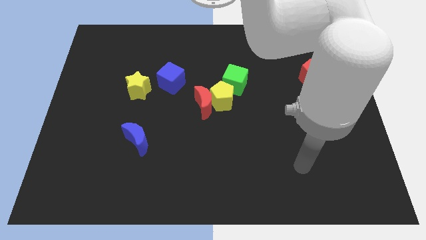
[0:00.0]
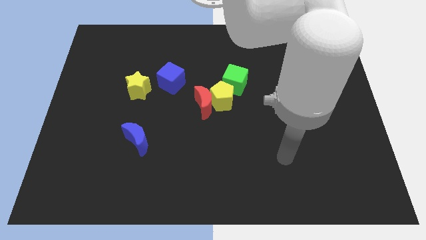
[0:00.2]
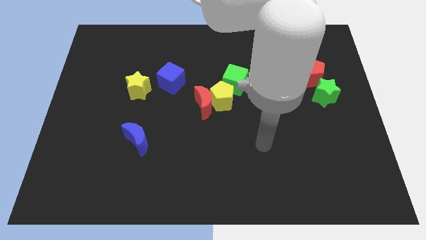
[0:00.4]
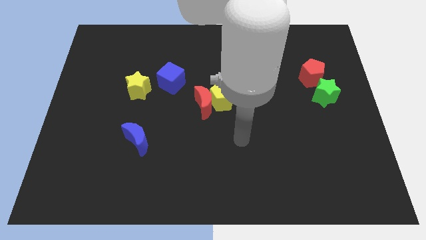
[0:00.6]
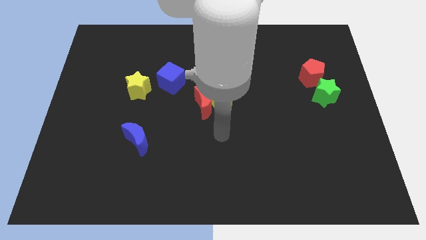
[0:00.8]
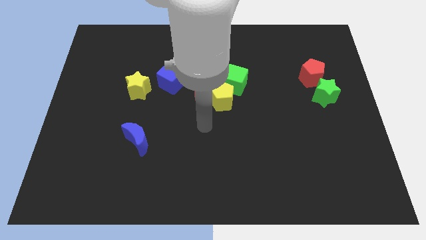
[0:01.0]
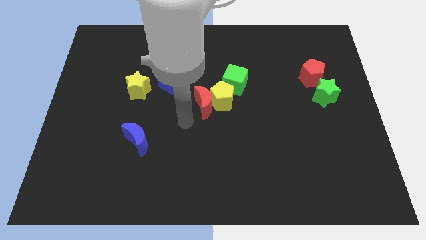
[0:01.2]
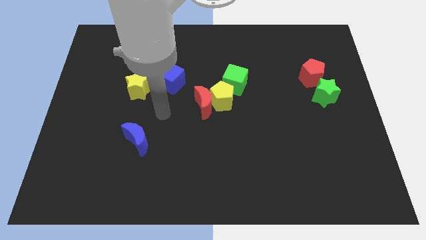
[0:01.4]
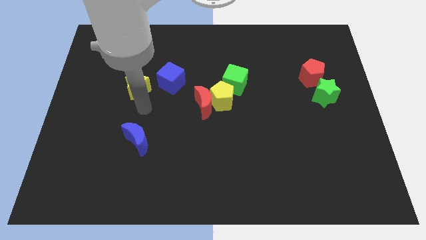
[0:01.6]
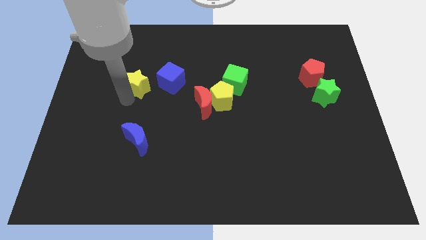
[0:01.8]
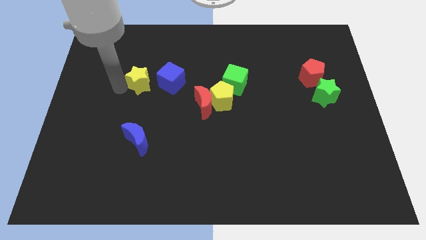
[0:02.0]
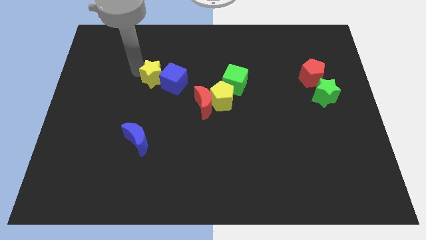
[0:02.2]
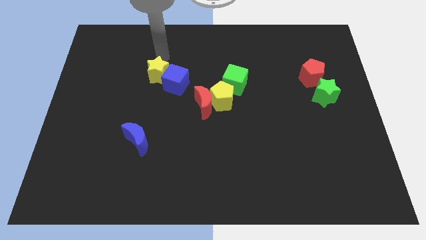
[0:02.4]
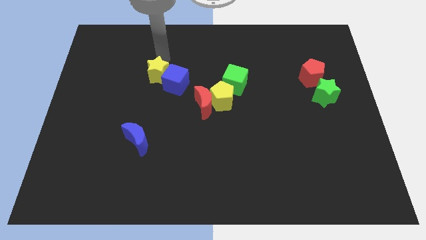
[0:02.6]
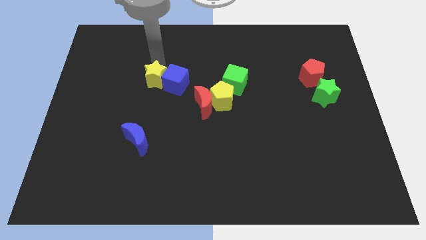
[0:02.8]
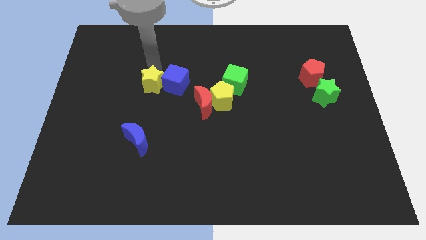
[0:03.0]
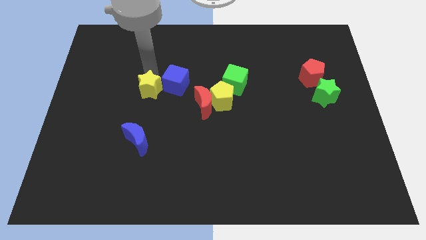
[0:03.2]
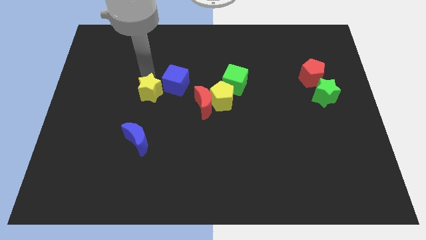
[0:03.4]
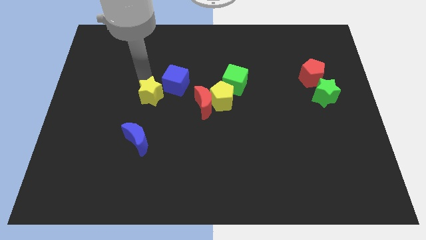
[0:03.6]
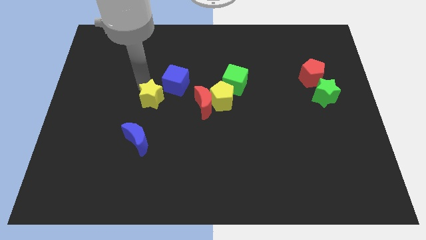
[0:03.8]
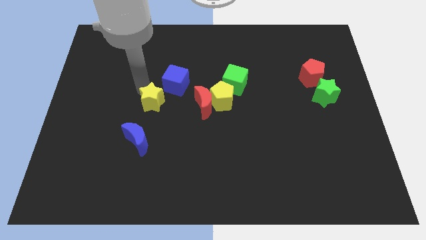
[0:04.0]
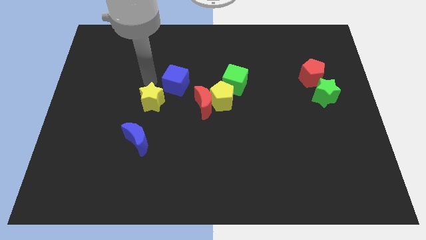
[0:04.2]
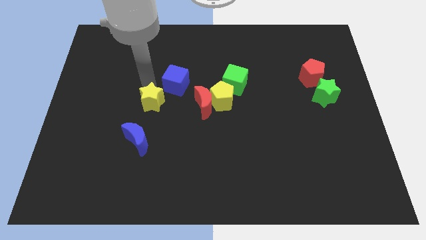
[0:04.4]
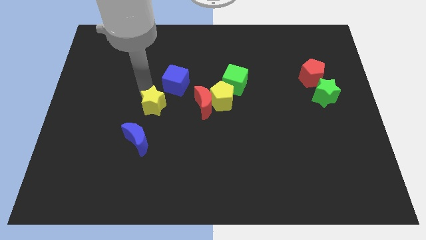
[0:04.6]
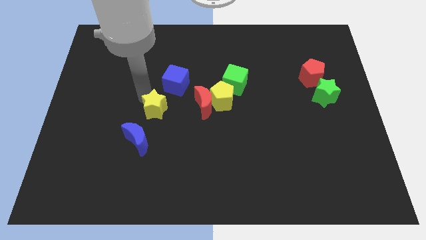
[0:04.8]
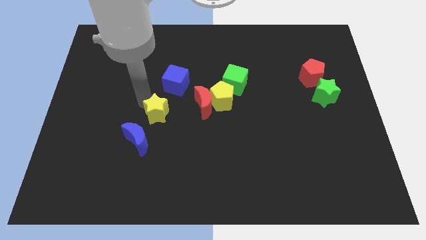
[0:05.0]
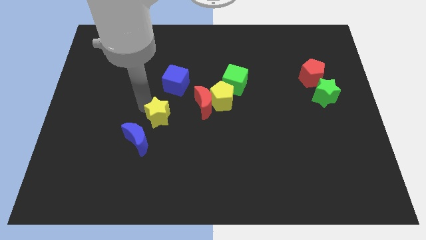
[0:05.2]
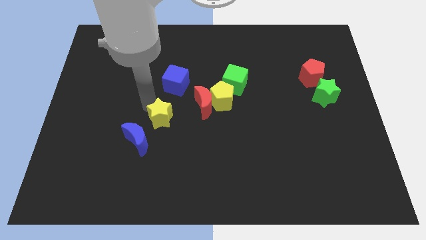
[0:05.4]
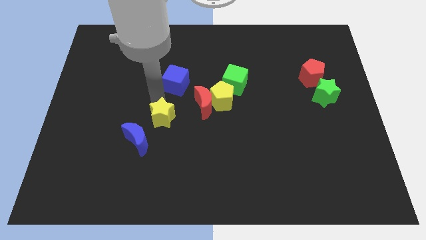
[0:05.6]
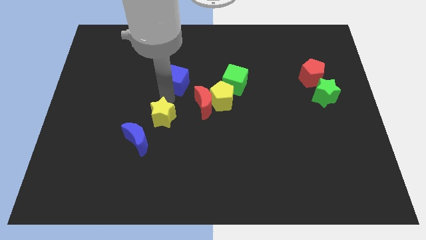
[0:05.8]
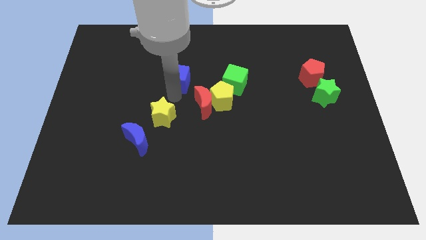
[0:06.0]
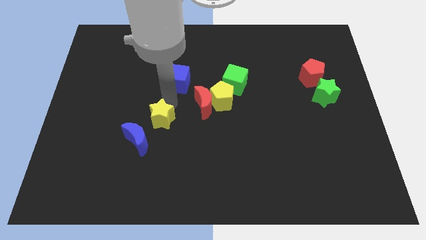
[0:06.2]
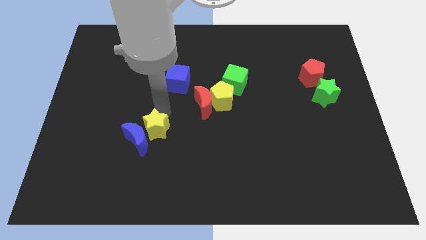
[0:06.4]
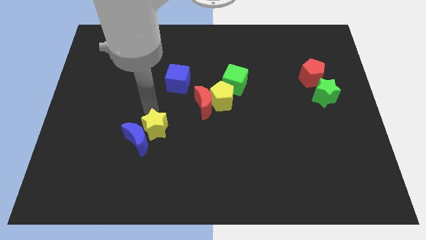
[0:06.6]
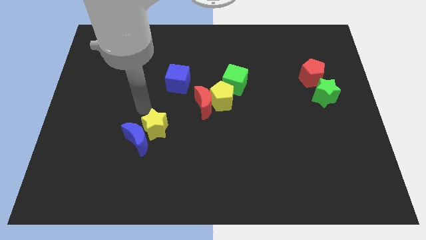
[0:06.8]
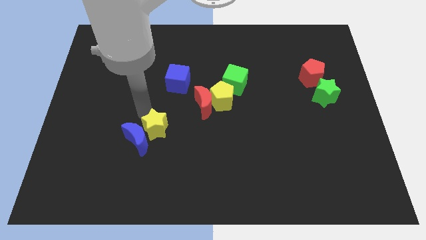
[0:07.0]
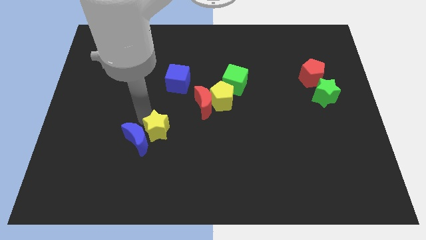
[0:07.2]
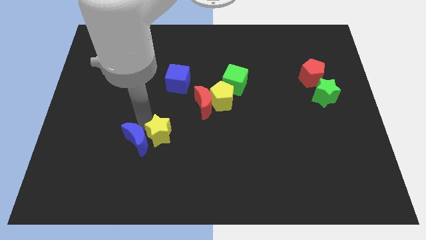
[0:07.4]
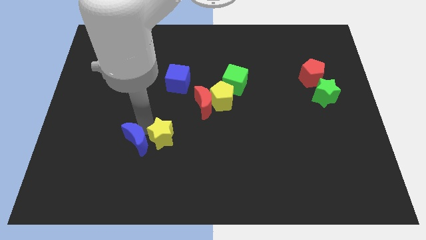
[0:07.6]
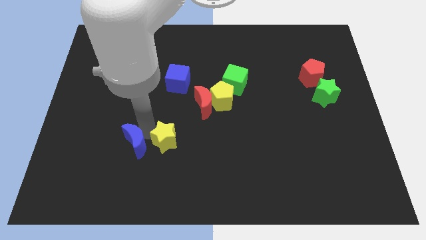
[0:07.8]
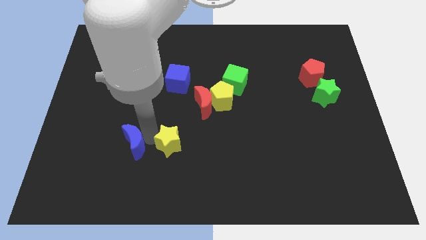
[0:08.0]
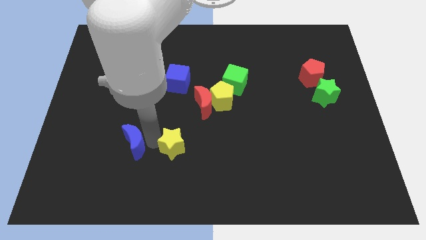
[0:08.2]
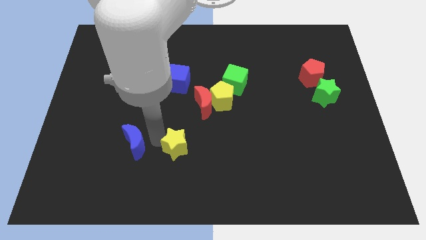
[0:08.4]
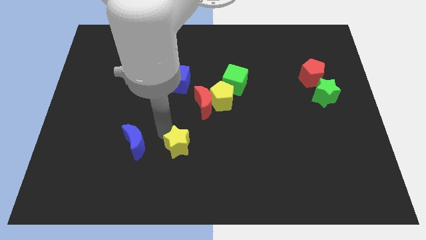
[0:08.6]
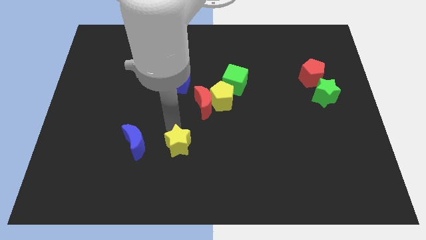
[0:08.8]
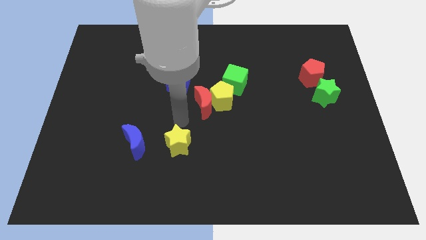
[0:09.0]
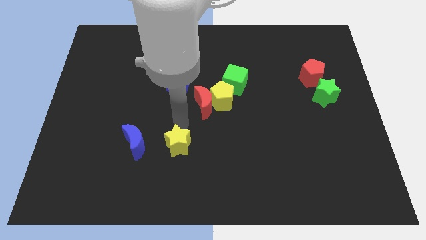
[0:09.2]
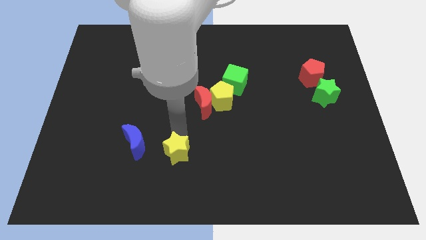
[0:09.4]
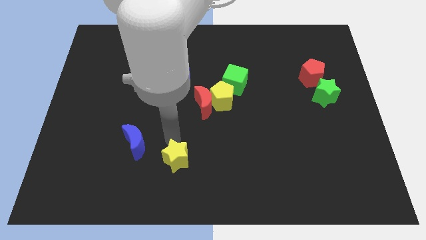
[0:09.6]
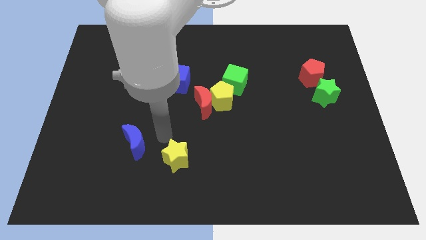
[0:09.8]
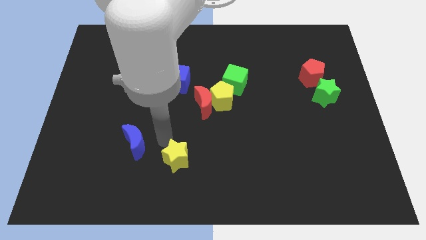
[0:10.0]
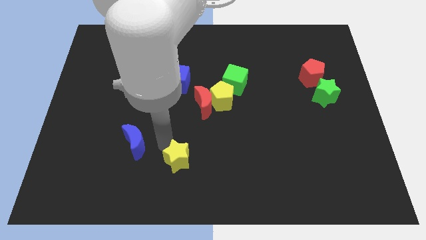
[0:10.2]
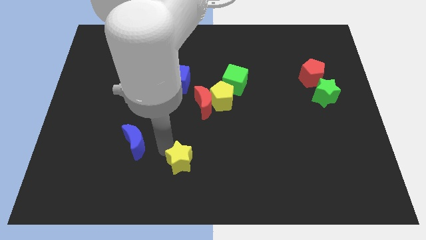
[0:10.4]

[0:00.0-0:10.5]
slide the yellow star to the bottom side

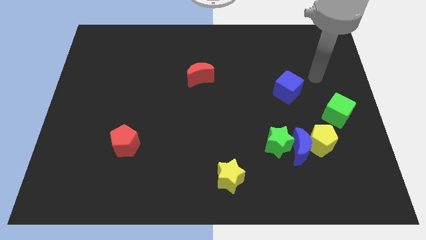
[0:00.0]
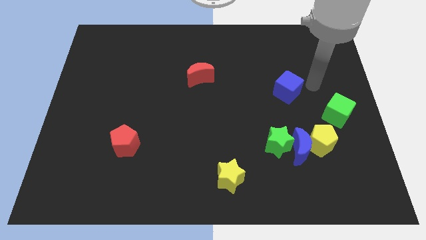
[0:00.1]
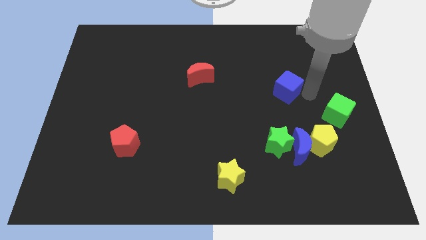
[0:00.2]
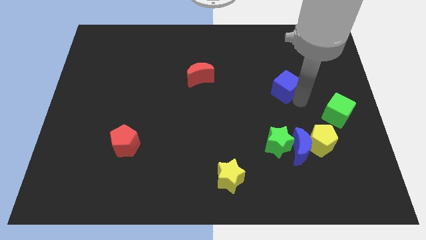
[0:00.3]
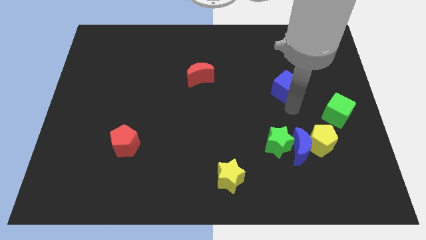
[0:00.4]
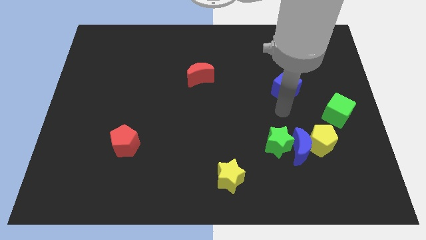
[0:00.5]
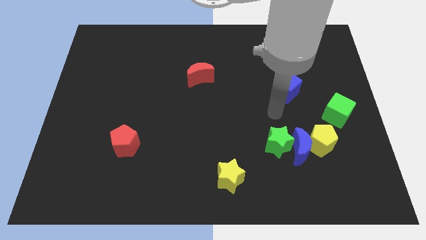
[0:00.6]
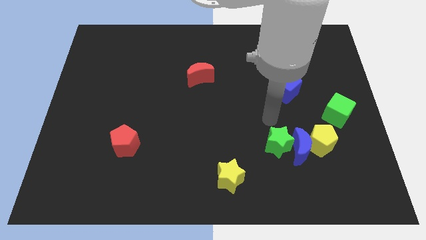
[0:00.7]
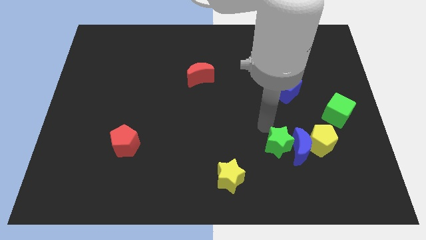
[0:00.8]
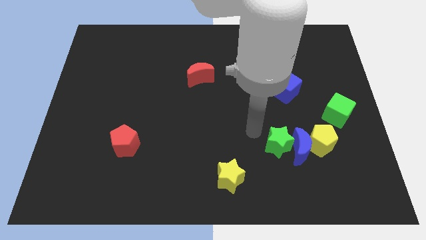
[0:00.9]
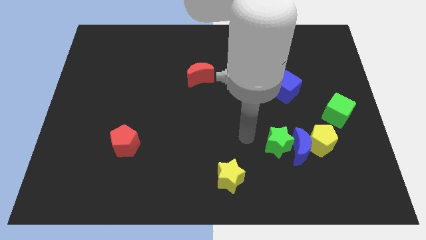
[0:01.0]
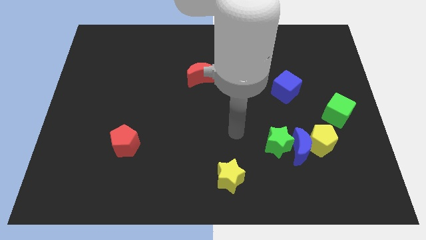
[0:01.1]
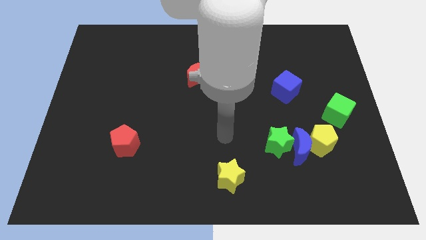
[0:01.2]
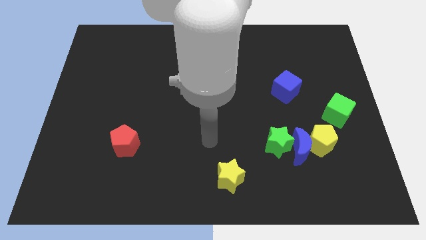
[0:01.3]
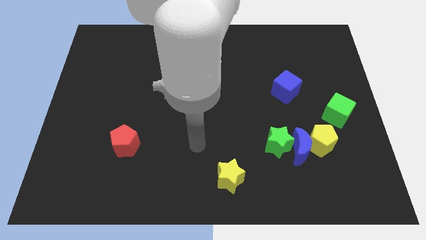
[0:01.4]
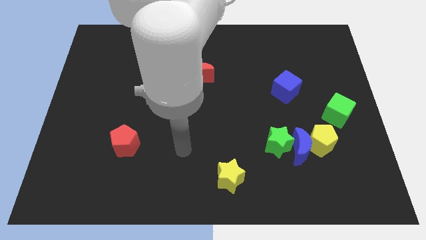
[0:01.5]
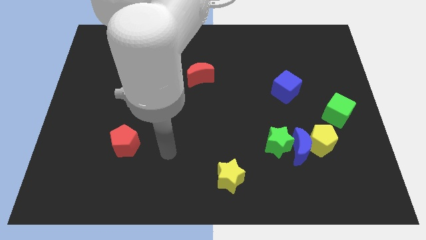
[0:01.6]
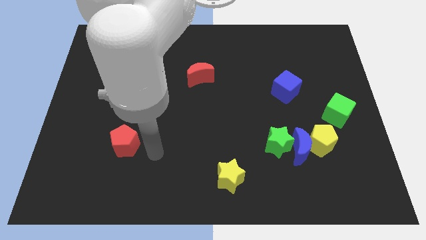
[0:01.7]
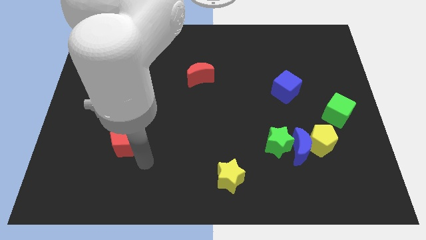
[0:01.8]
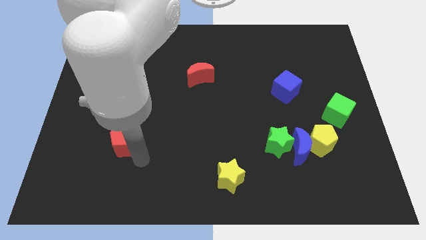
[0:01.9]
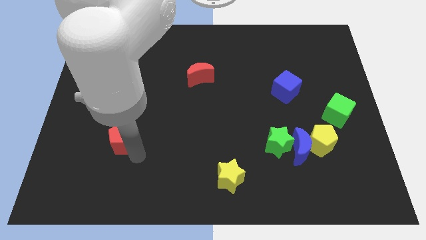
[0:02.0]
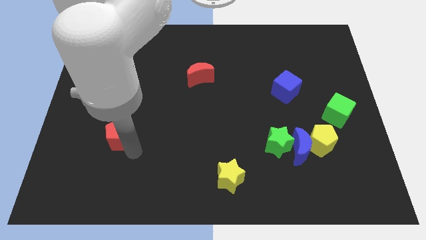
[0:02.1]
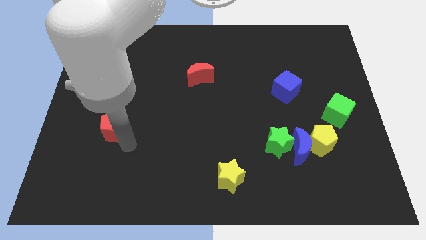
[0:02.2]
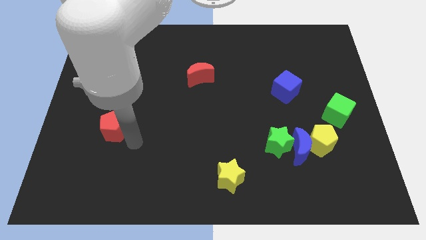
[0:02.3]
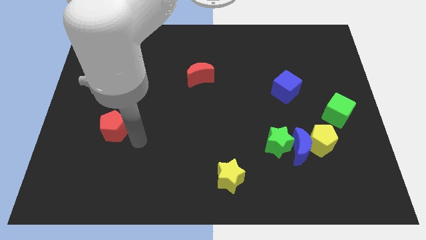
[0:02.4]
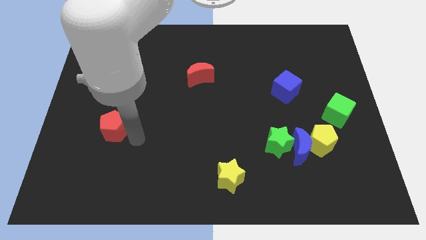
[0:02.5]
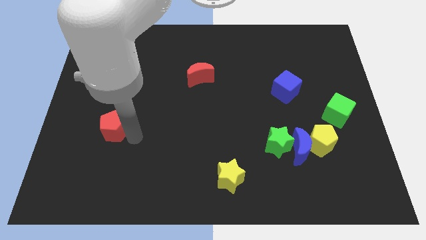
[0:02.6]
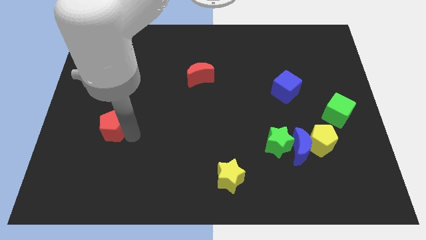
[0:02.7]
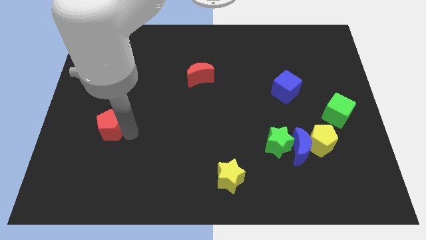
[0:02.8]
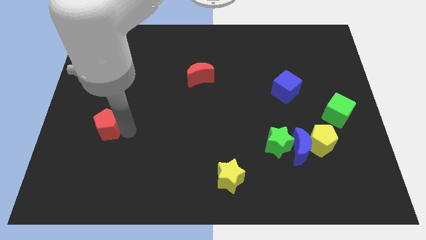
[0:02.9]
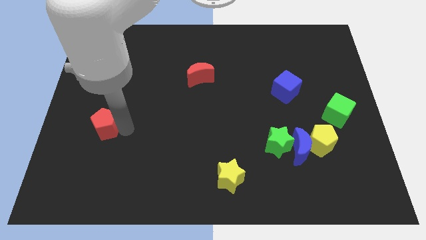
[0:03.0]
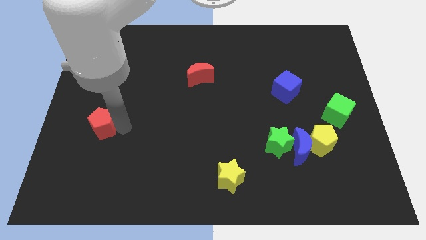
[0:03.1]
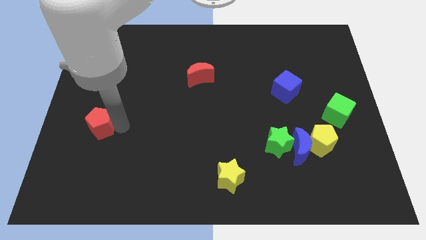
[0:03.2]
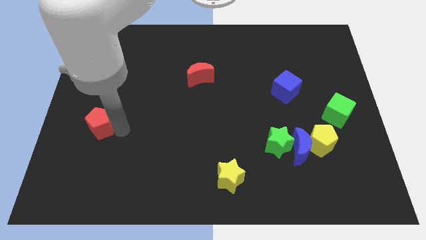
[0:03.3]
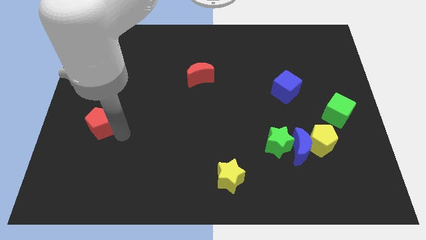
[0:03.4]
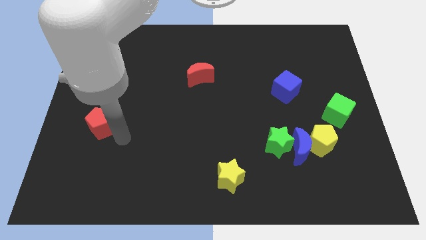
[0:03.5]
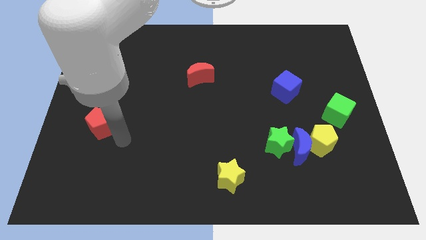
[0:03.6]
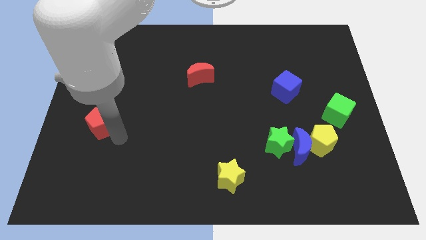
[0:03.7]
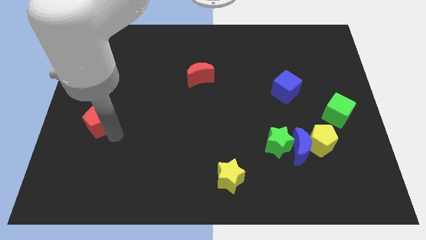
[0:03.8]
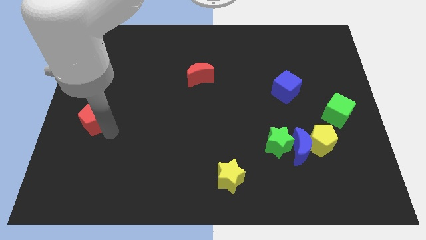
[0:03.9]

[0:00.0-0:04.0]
slide the red pentagon to the center left
